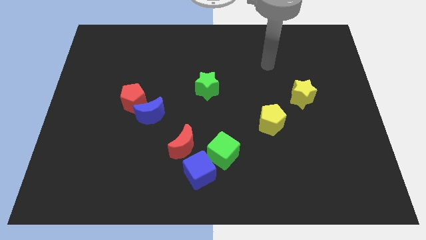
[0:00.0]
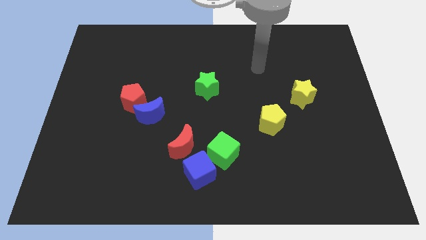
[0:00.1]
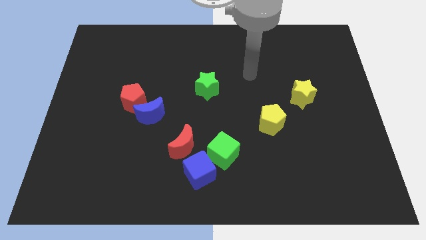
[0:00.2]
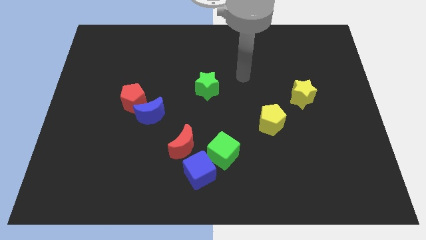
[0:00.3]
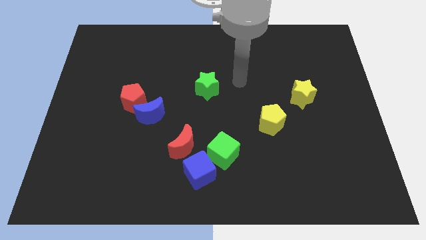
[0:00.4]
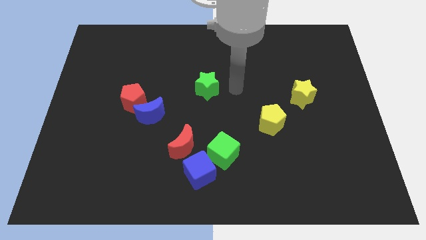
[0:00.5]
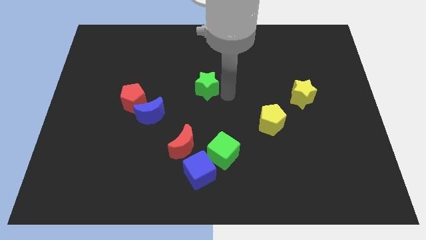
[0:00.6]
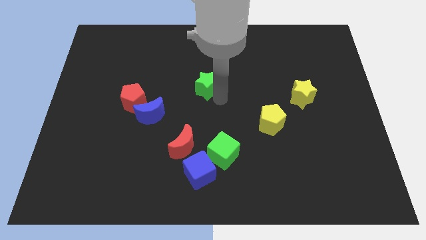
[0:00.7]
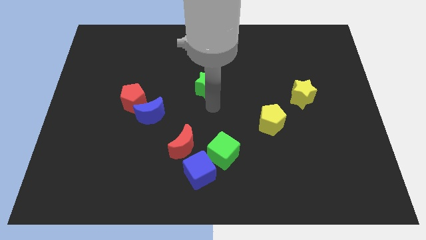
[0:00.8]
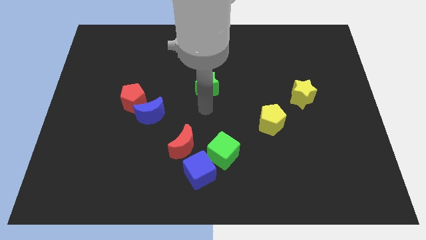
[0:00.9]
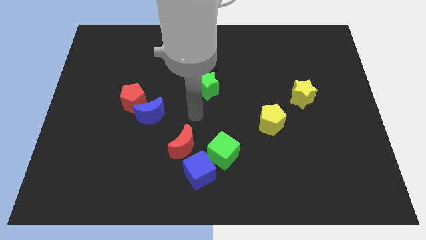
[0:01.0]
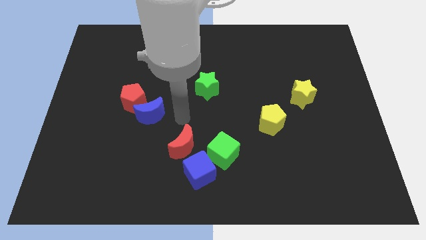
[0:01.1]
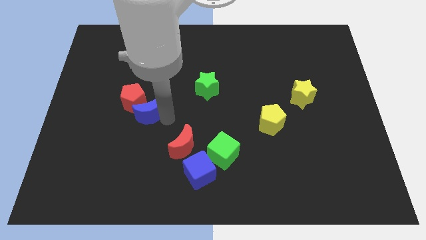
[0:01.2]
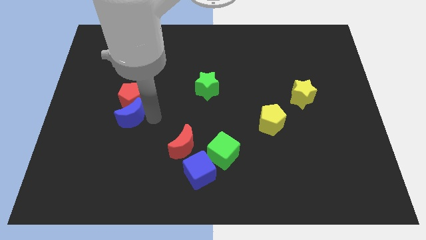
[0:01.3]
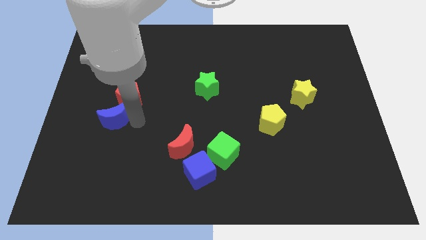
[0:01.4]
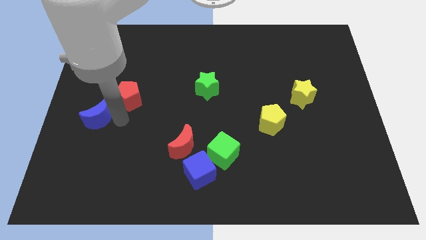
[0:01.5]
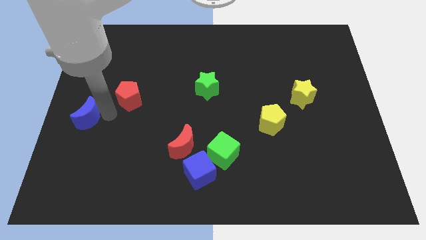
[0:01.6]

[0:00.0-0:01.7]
separate the red pentagon from the blue moon

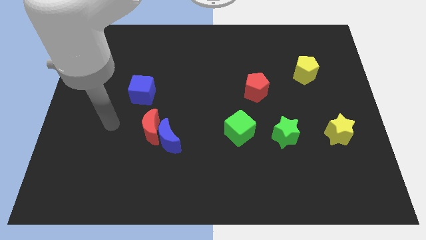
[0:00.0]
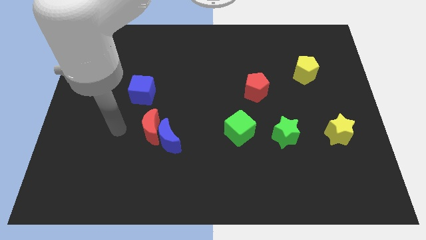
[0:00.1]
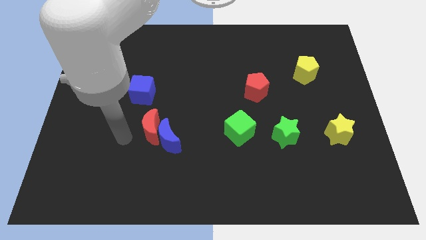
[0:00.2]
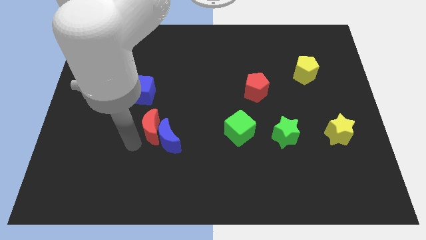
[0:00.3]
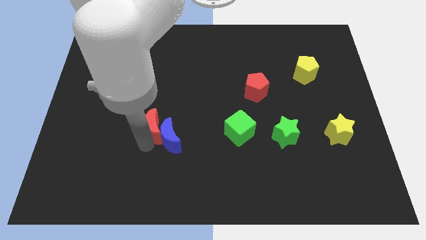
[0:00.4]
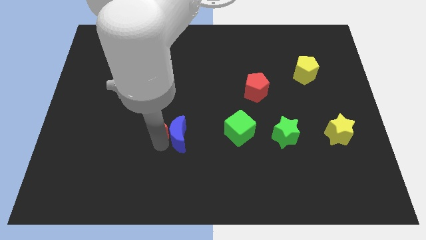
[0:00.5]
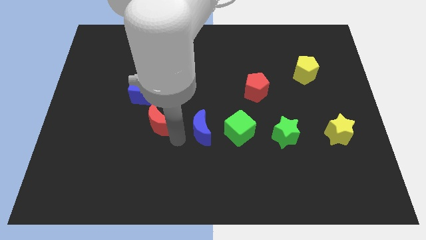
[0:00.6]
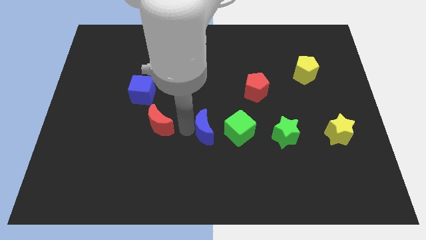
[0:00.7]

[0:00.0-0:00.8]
move the red moon away from the blue moon

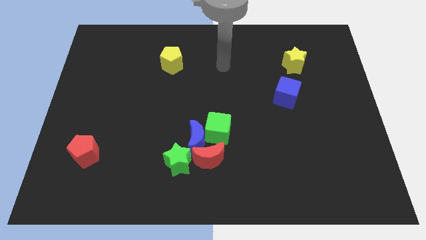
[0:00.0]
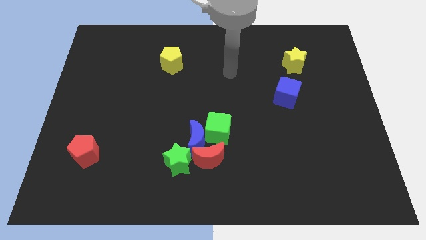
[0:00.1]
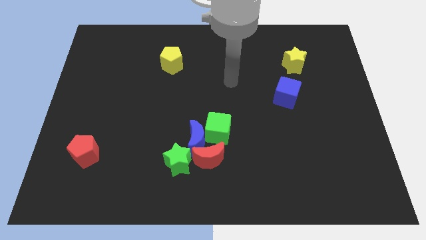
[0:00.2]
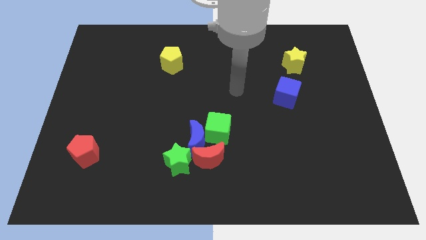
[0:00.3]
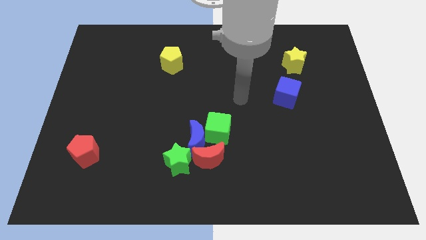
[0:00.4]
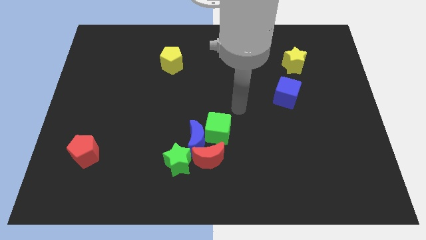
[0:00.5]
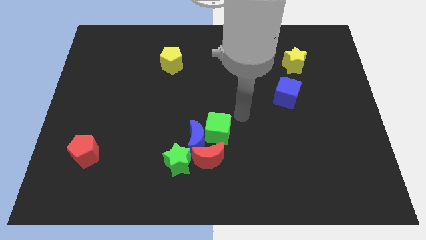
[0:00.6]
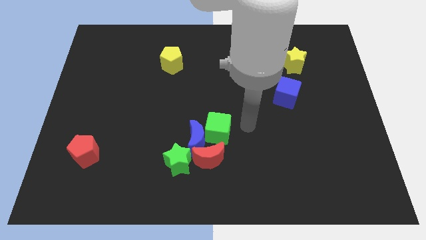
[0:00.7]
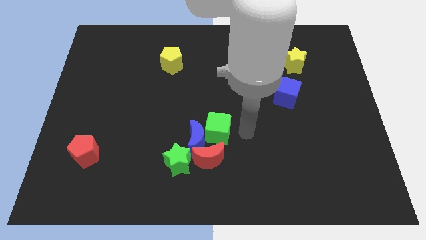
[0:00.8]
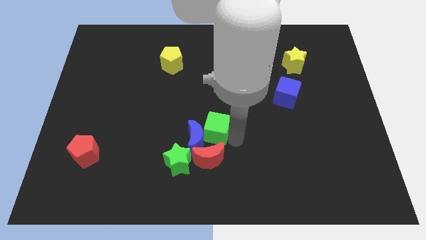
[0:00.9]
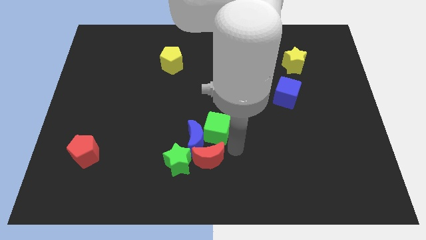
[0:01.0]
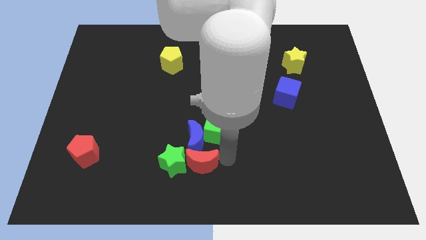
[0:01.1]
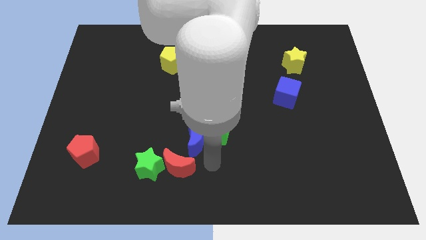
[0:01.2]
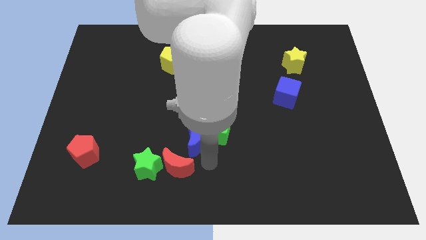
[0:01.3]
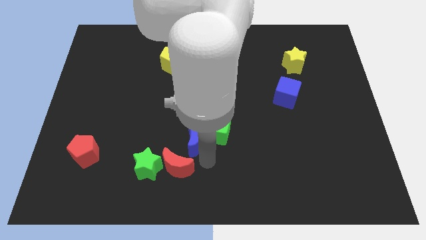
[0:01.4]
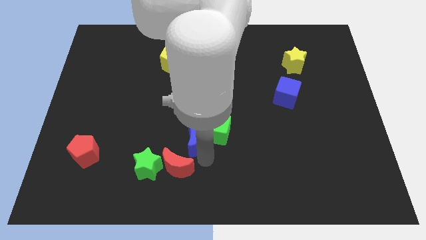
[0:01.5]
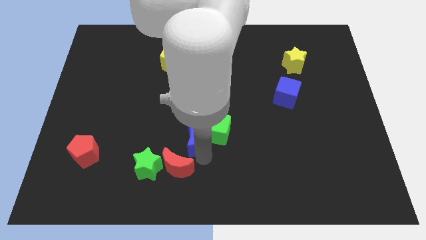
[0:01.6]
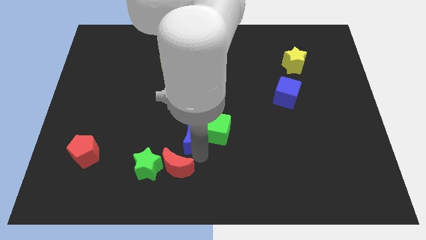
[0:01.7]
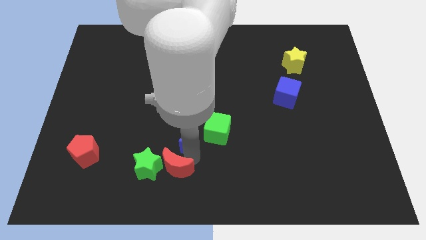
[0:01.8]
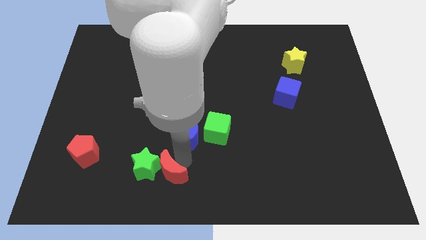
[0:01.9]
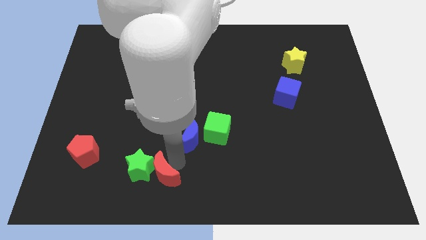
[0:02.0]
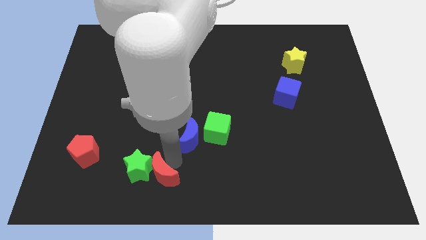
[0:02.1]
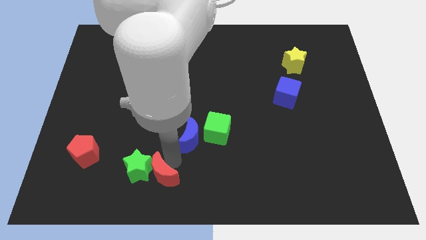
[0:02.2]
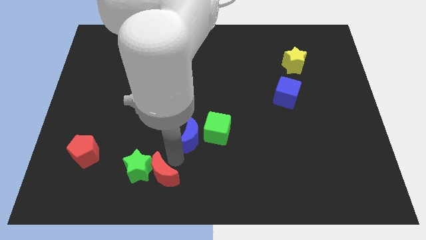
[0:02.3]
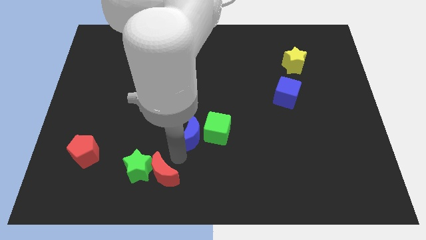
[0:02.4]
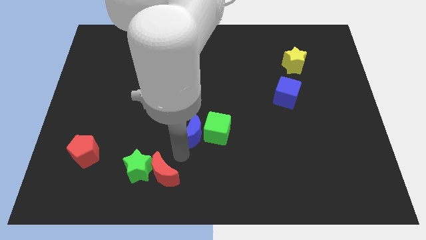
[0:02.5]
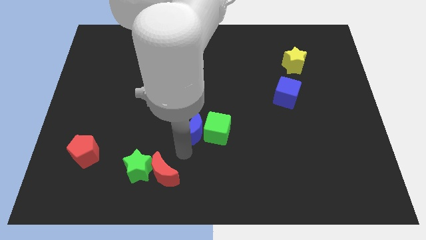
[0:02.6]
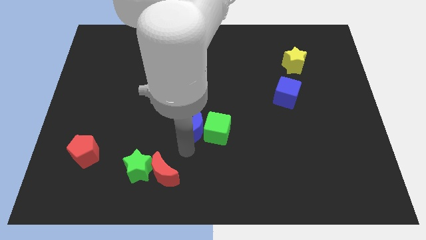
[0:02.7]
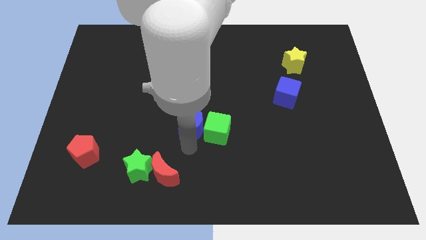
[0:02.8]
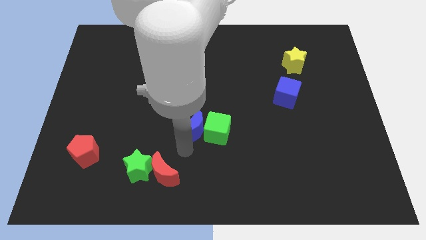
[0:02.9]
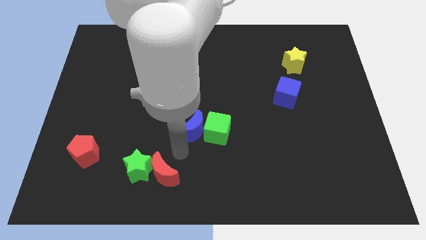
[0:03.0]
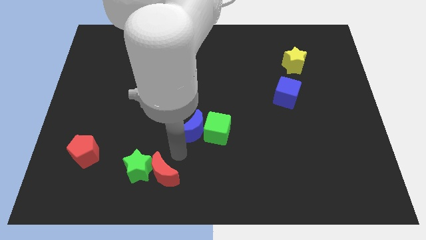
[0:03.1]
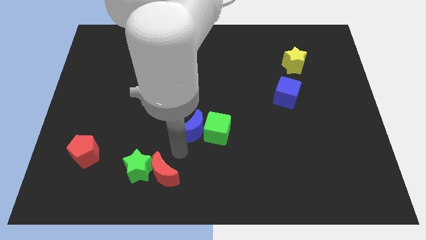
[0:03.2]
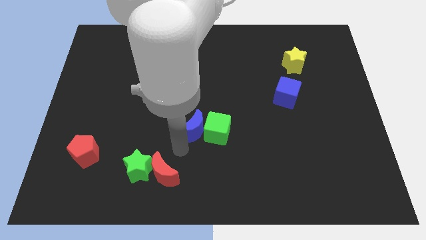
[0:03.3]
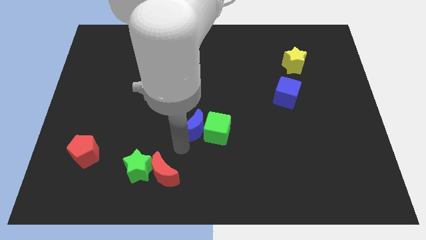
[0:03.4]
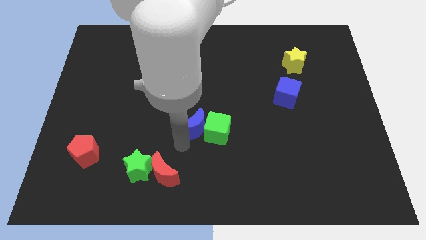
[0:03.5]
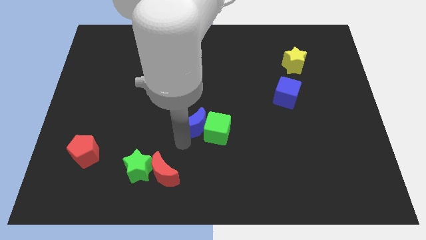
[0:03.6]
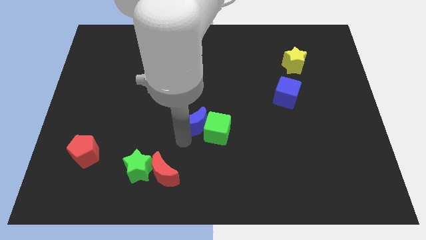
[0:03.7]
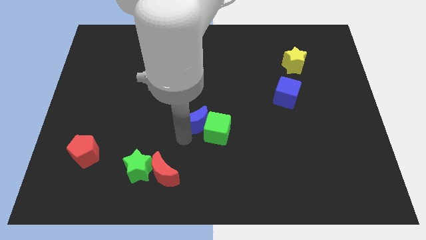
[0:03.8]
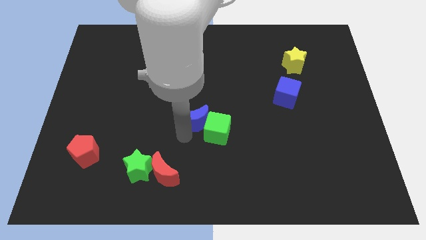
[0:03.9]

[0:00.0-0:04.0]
pull the blue moon apart from the group of blocks

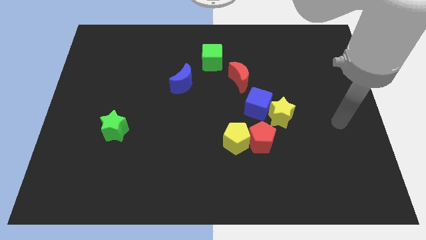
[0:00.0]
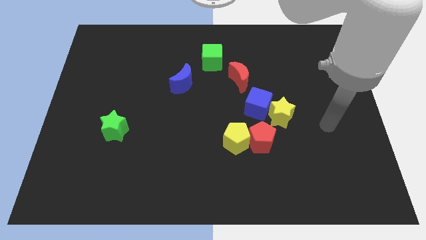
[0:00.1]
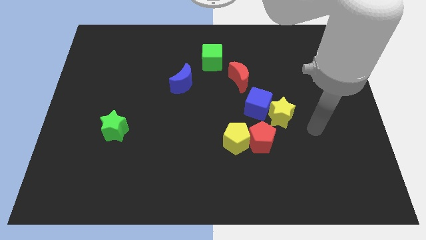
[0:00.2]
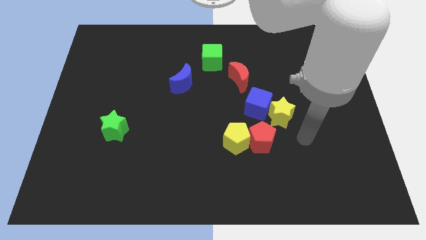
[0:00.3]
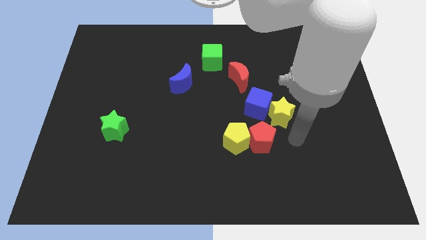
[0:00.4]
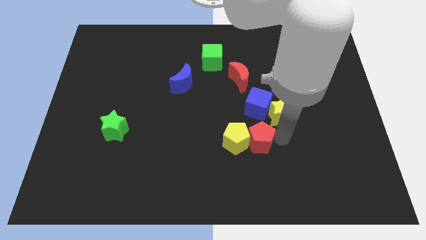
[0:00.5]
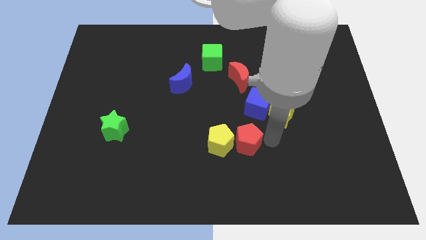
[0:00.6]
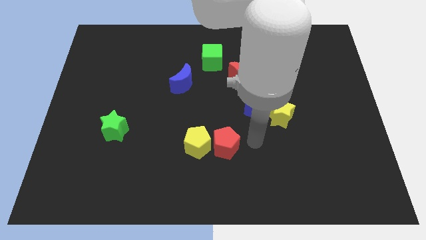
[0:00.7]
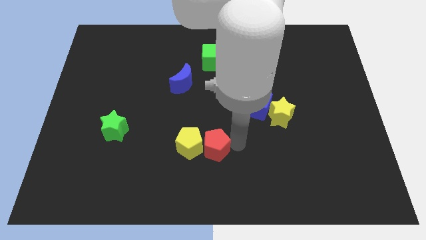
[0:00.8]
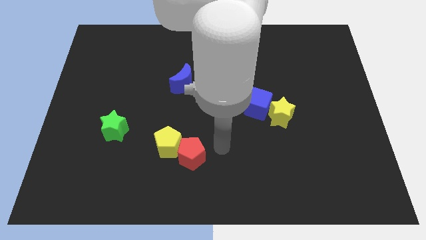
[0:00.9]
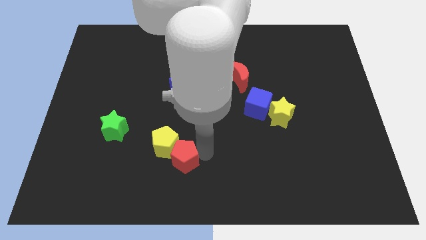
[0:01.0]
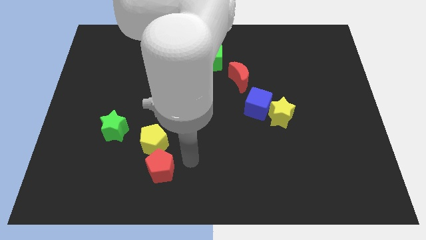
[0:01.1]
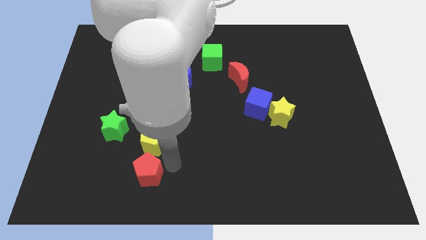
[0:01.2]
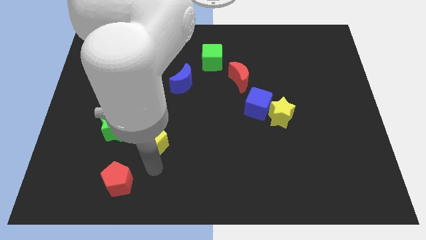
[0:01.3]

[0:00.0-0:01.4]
pull the yellow pentagon apart from the red pentagon

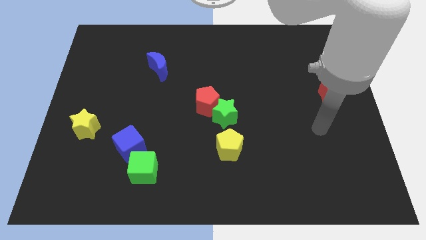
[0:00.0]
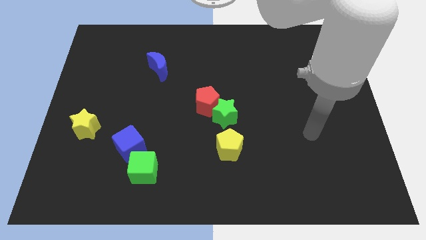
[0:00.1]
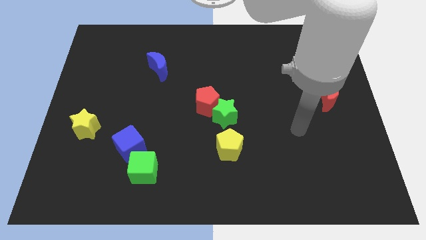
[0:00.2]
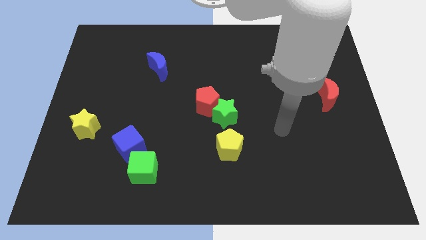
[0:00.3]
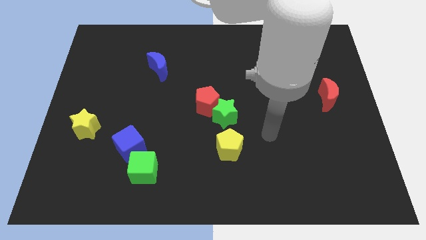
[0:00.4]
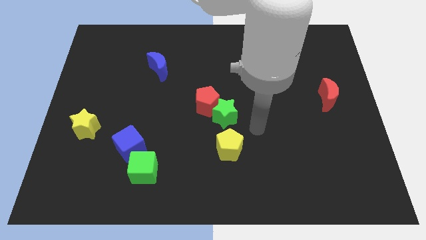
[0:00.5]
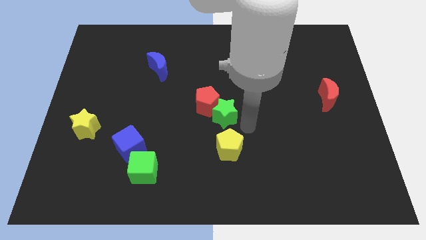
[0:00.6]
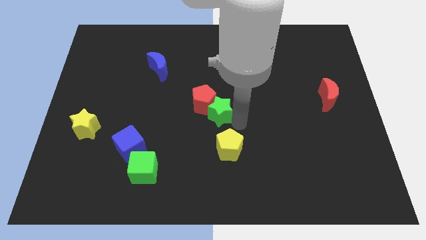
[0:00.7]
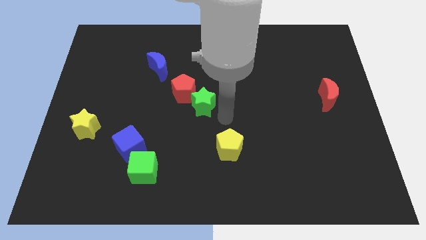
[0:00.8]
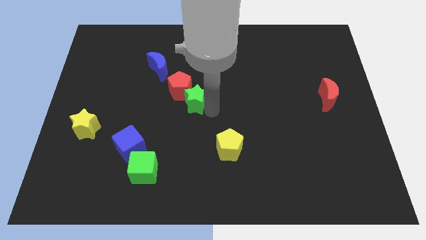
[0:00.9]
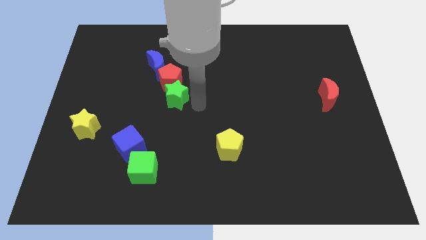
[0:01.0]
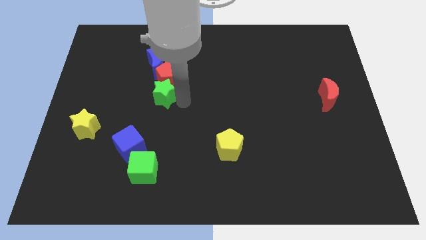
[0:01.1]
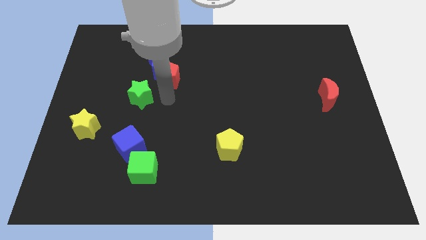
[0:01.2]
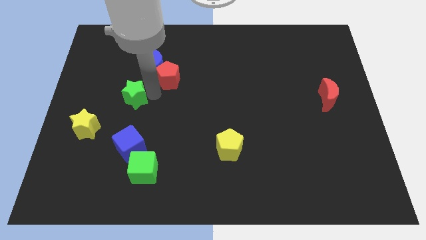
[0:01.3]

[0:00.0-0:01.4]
separate the red pentagon from the green star
